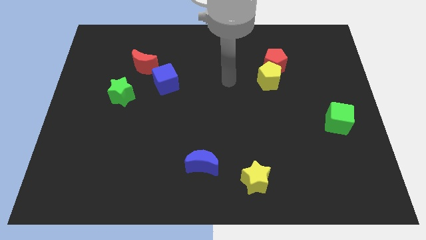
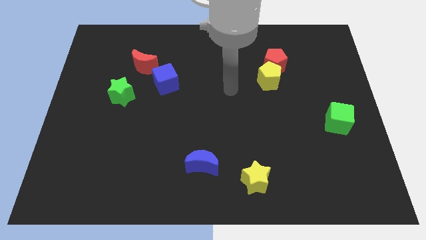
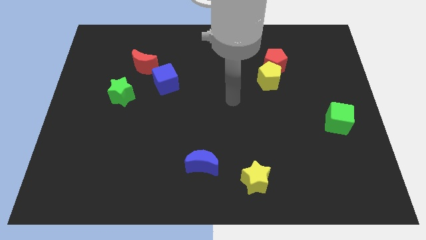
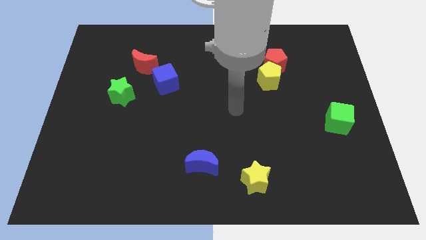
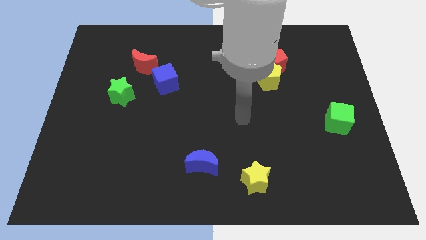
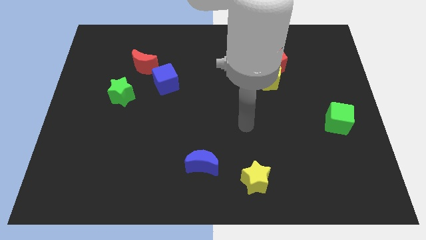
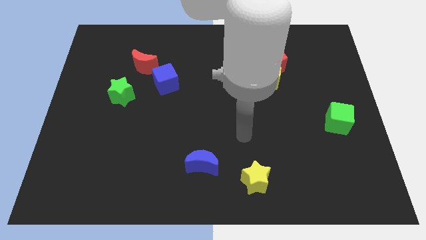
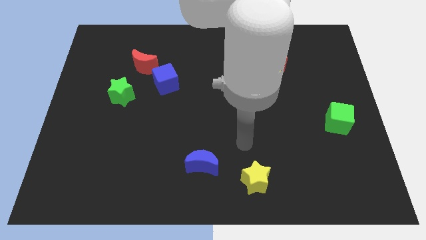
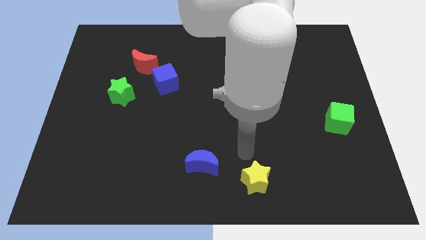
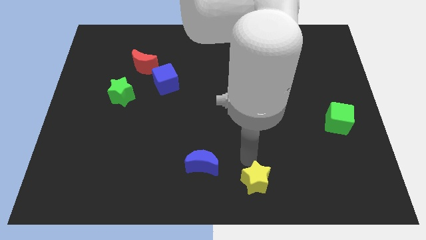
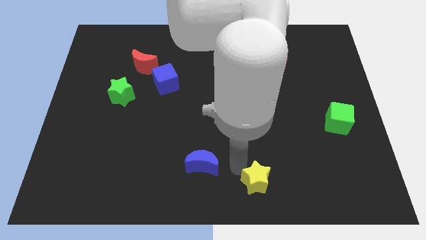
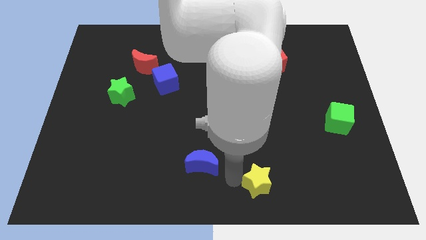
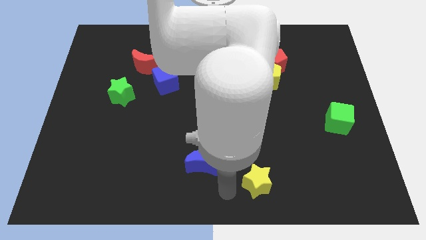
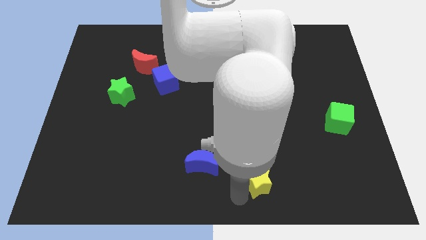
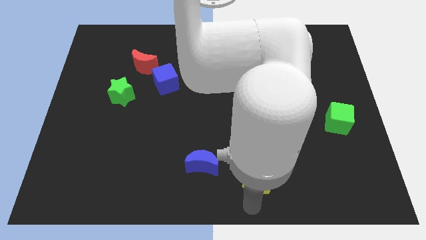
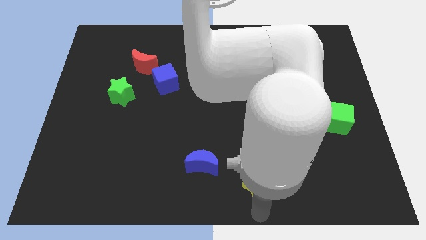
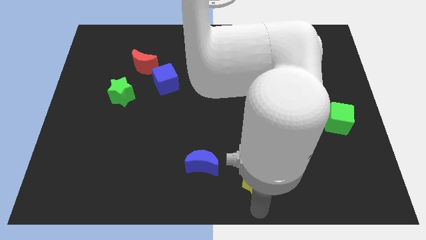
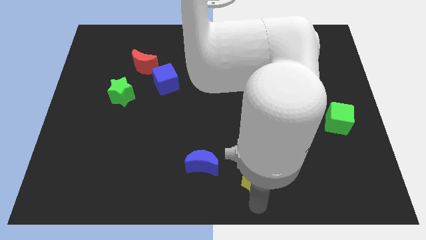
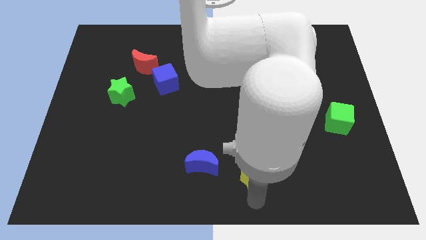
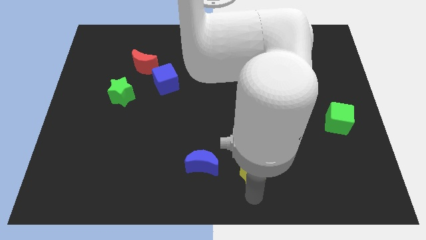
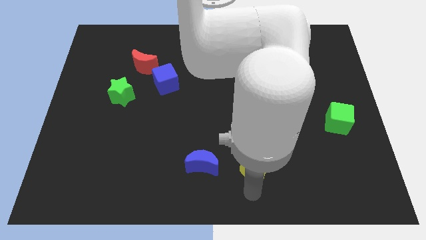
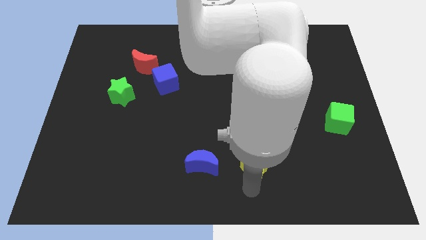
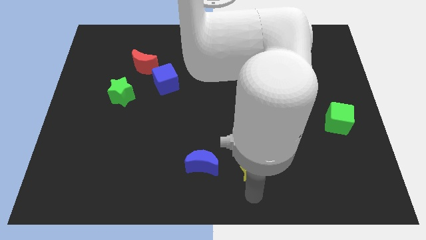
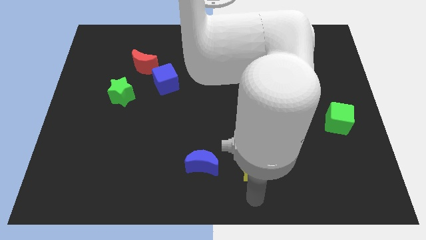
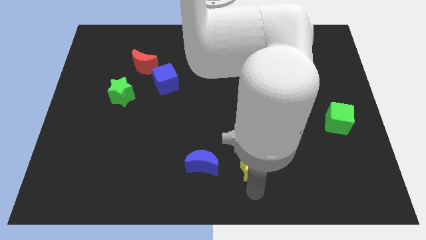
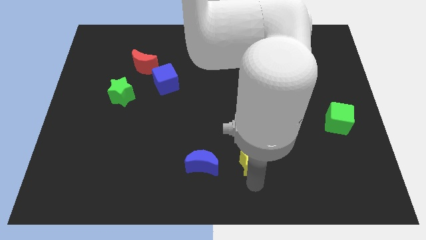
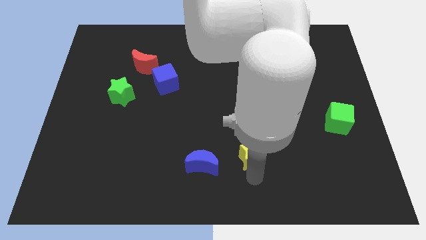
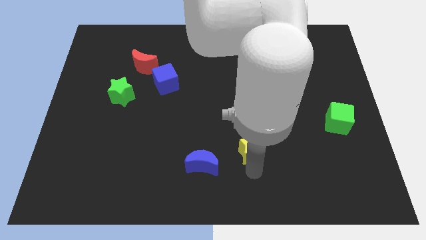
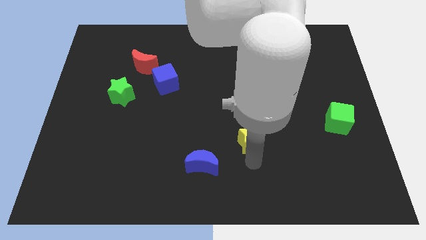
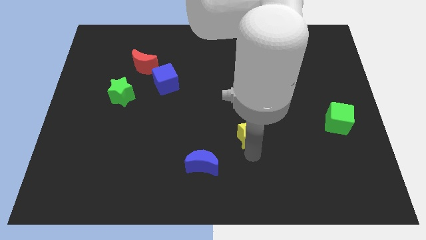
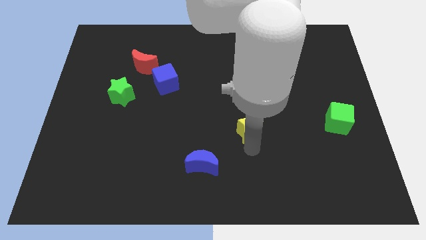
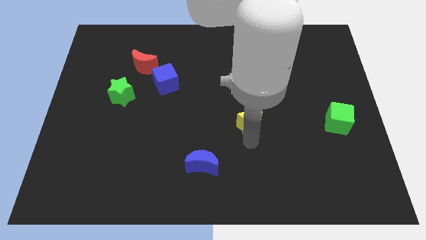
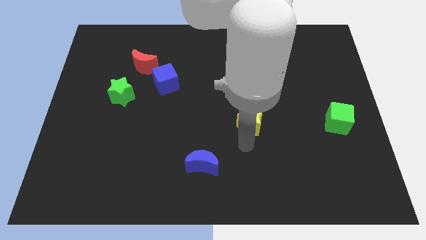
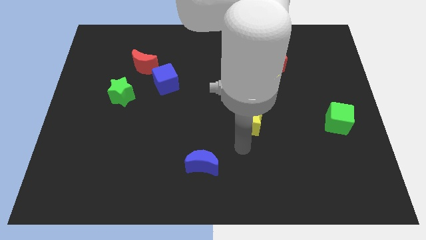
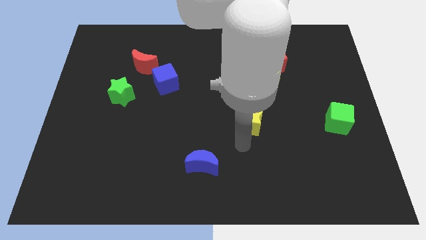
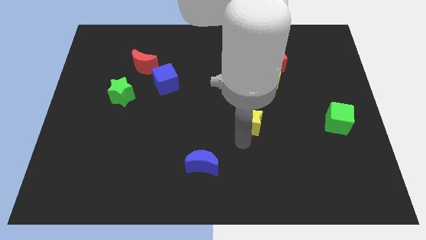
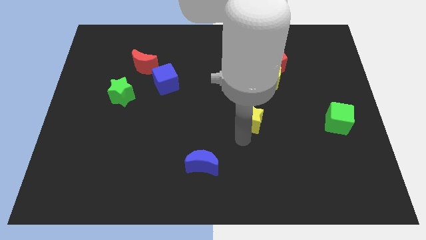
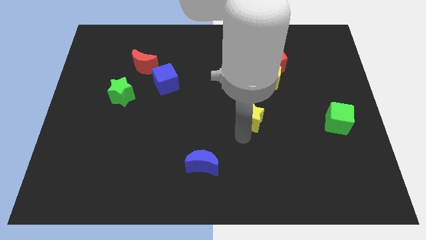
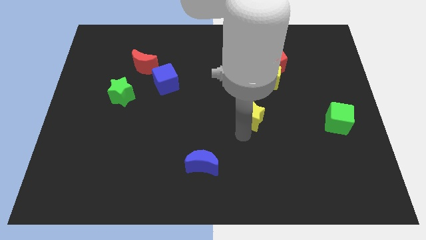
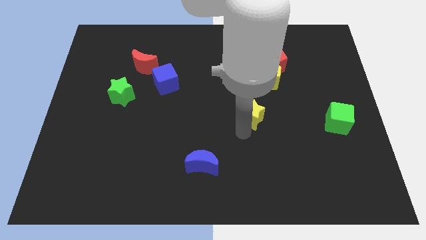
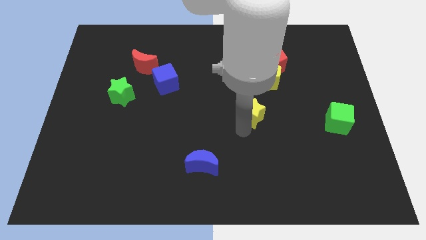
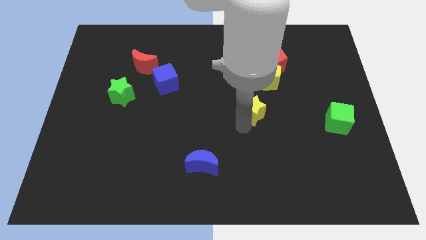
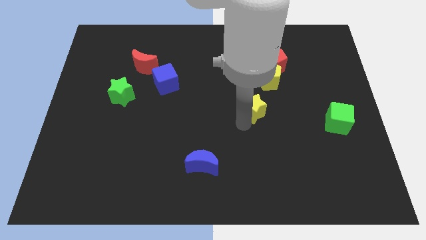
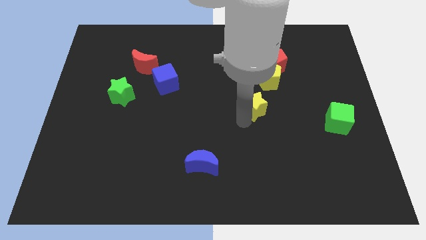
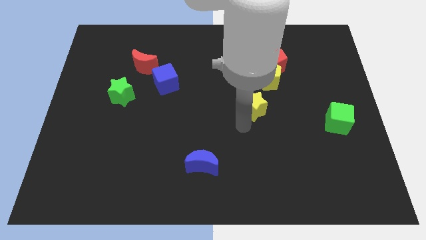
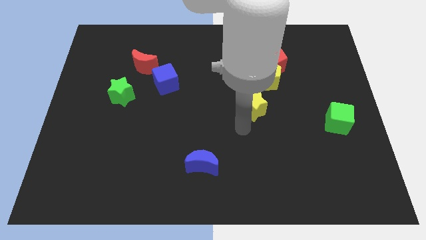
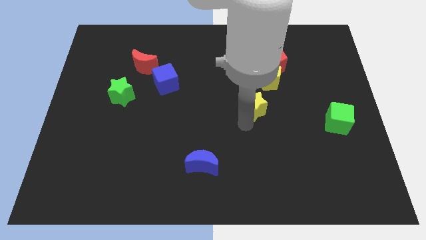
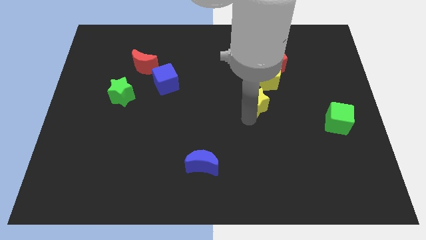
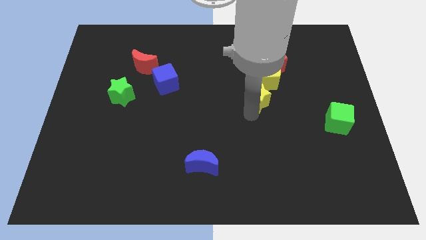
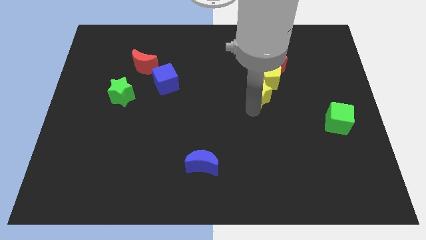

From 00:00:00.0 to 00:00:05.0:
put the yellow star close to the yellow pentagon

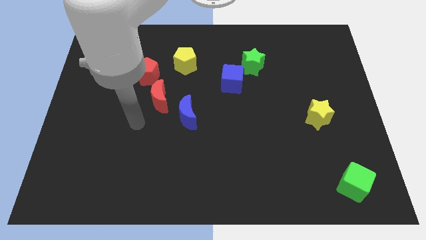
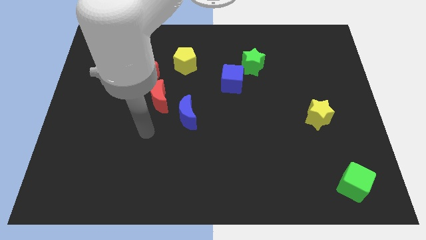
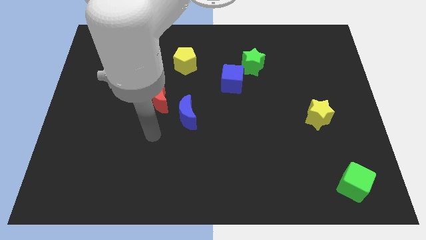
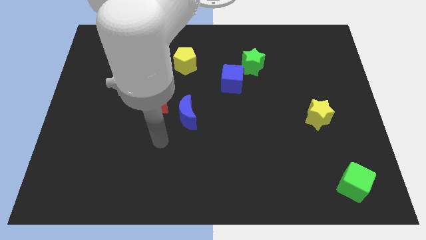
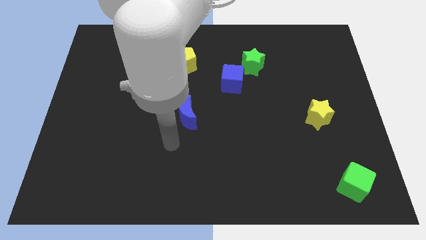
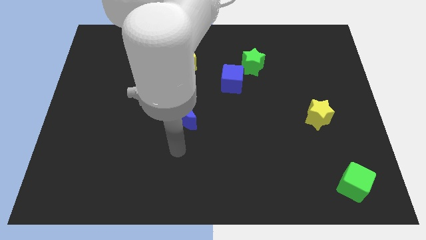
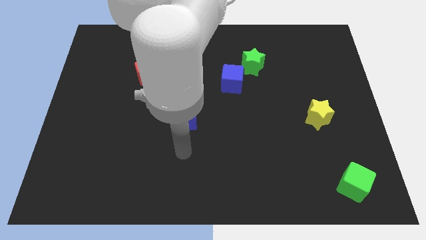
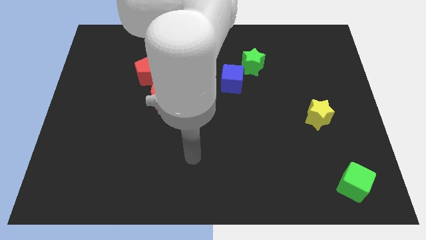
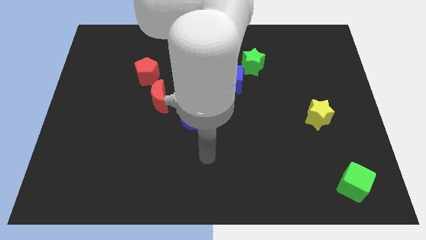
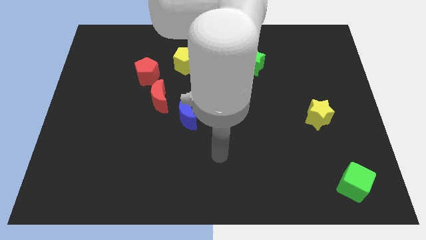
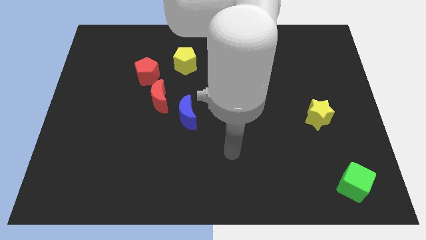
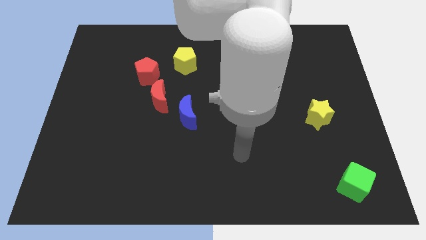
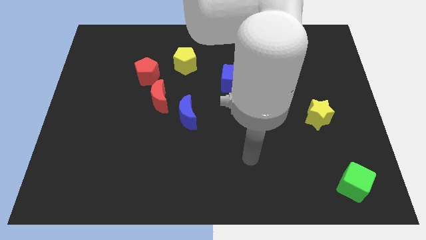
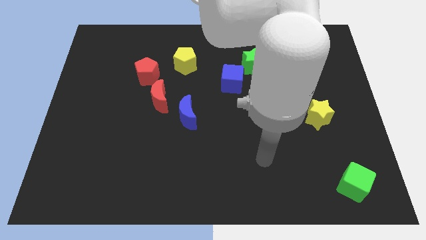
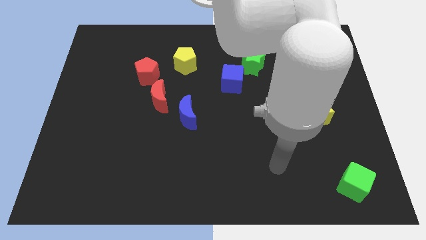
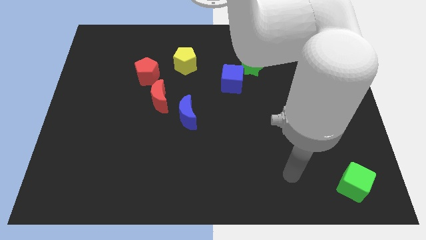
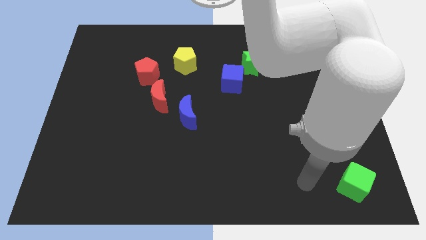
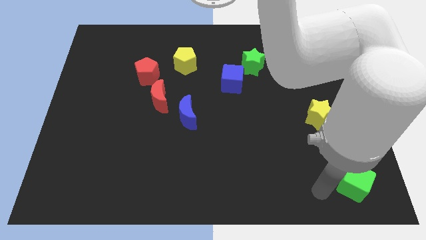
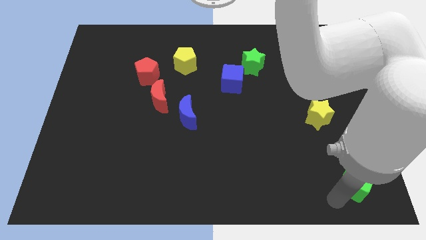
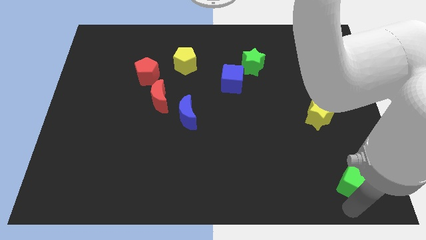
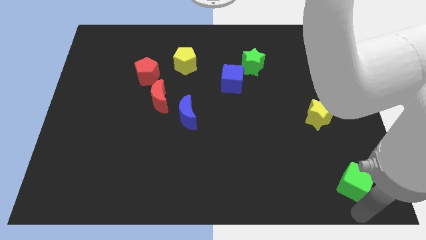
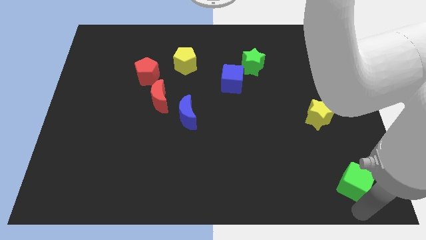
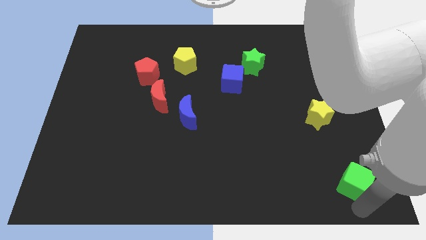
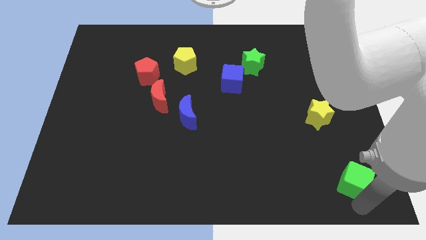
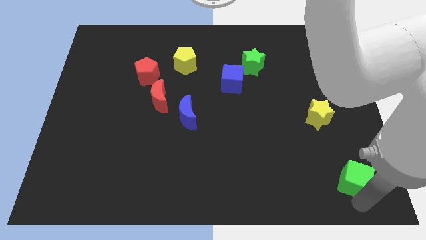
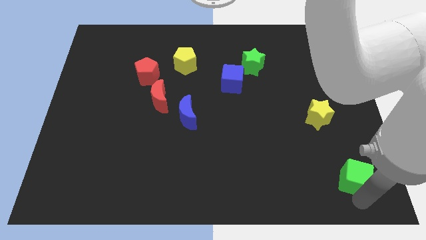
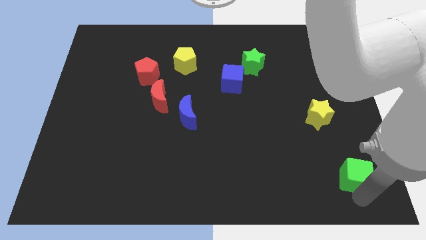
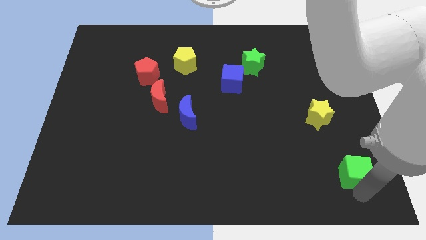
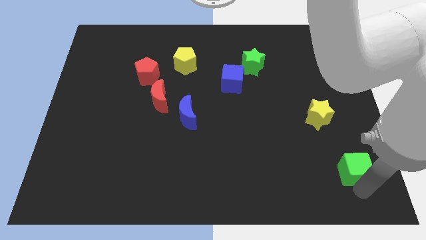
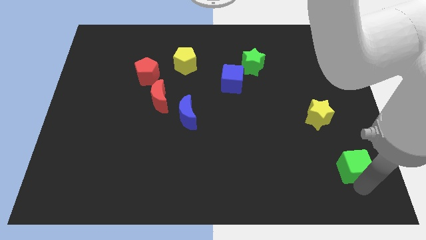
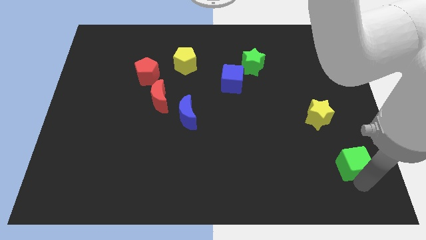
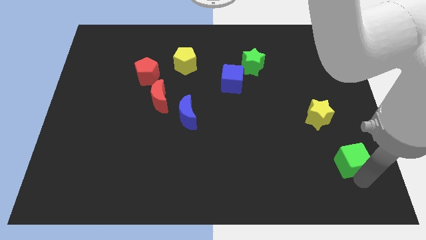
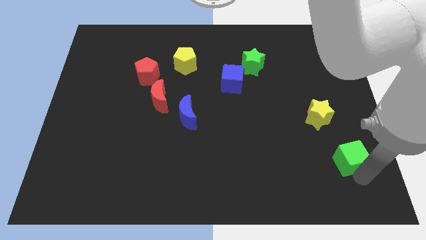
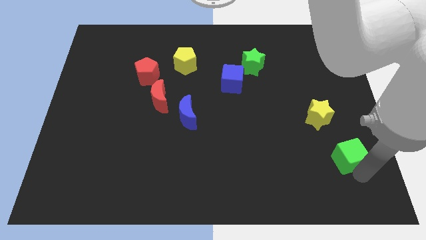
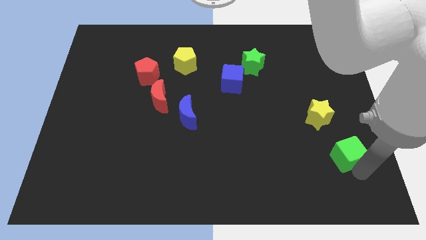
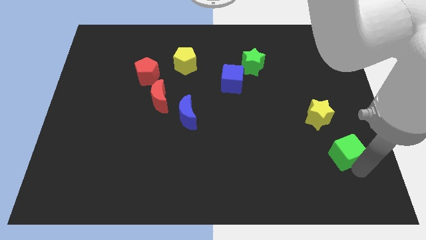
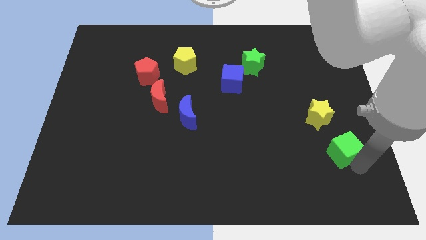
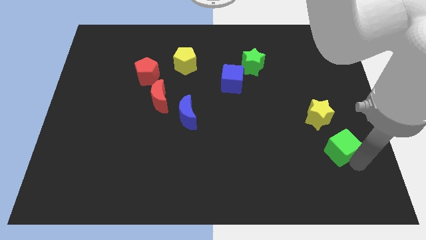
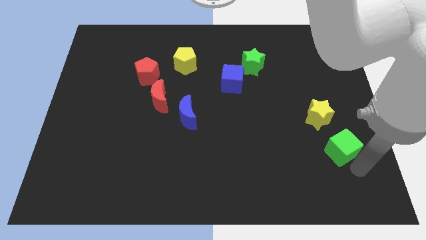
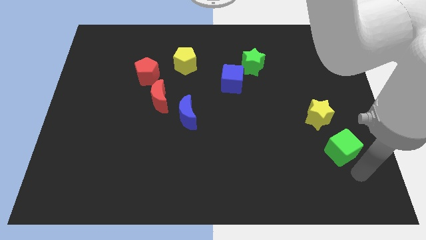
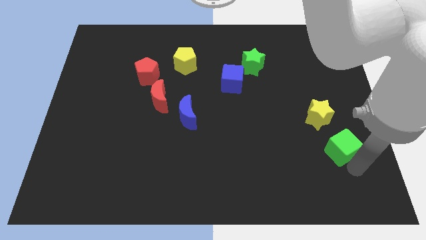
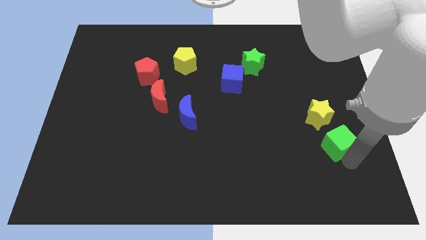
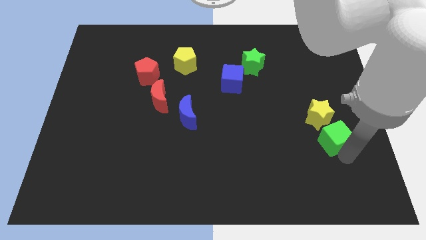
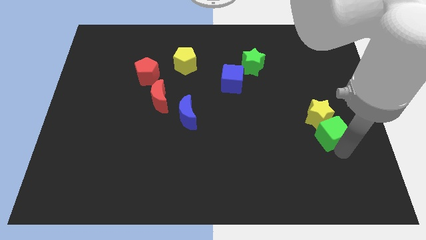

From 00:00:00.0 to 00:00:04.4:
put the green cube close to the yellow star
